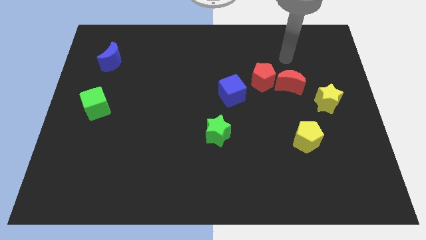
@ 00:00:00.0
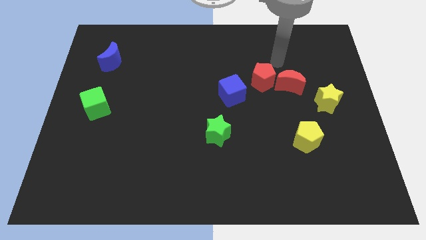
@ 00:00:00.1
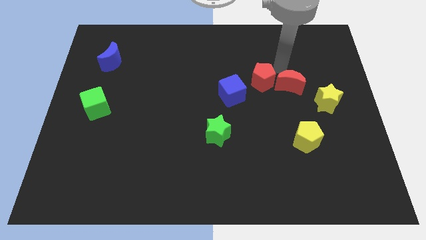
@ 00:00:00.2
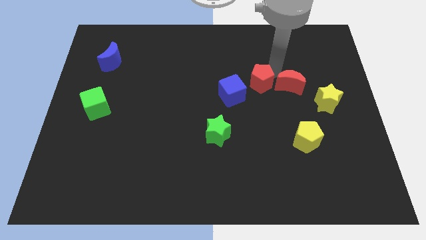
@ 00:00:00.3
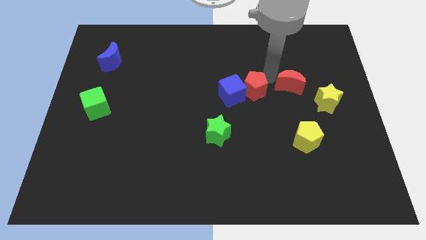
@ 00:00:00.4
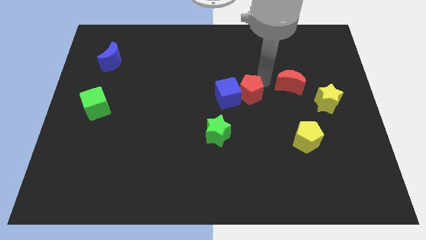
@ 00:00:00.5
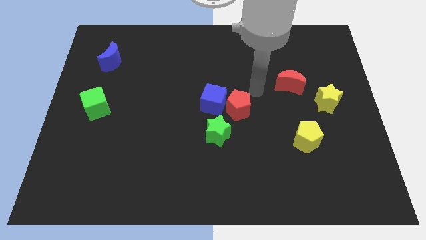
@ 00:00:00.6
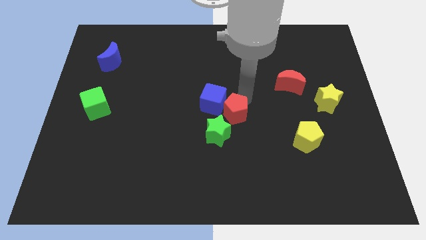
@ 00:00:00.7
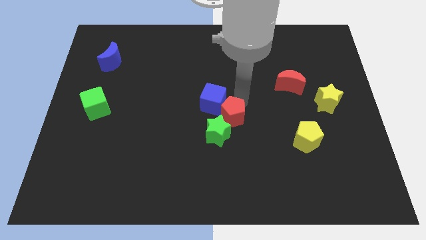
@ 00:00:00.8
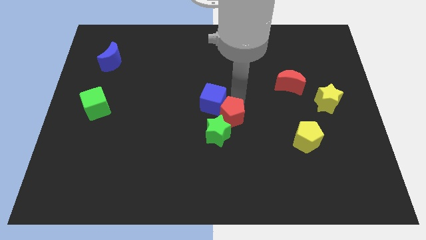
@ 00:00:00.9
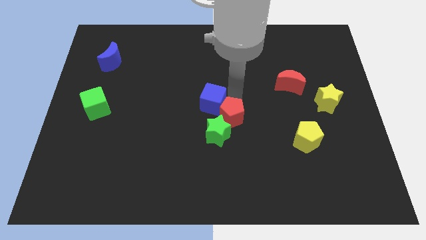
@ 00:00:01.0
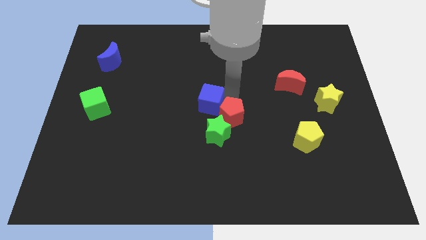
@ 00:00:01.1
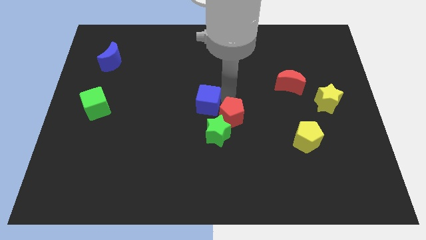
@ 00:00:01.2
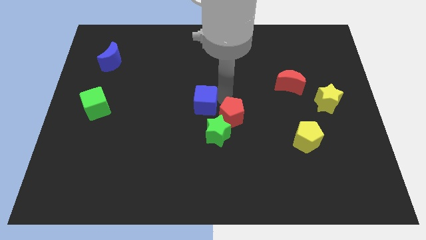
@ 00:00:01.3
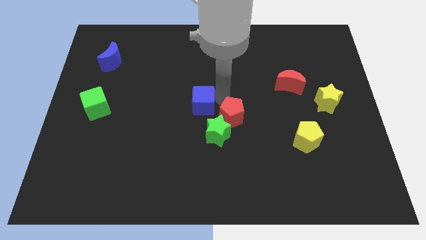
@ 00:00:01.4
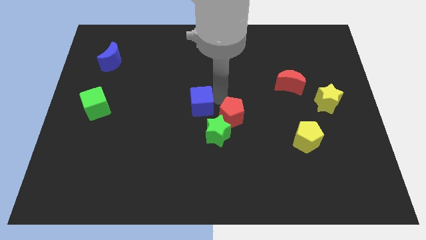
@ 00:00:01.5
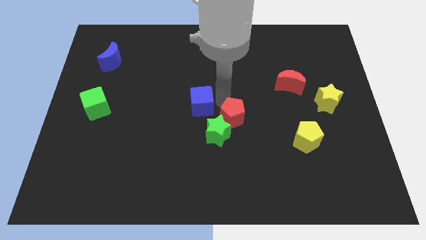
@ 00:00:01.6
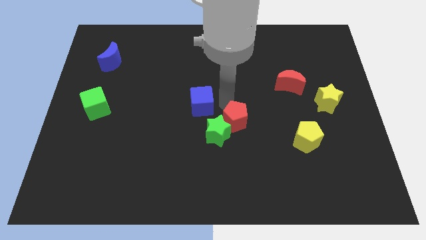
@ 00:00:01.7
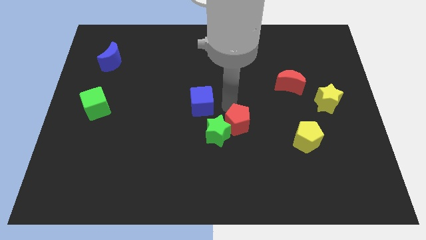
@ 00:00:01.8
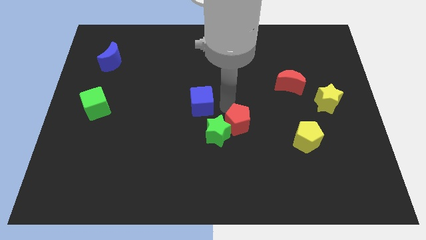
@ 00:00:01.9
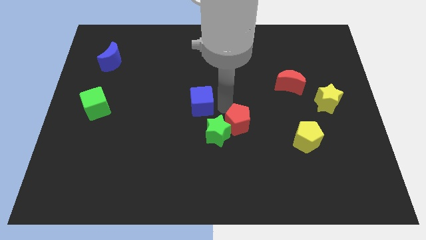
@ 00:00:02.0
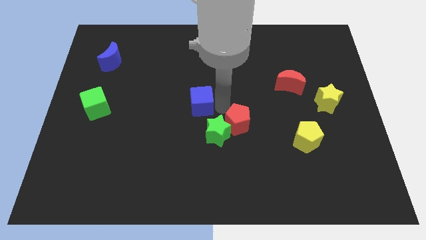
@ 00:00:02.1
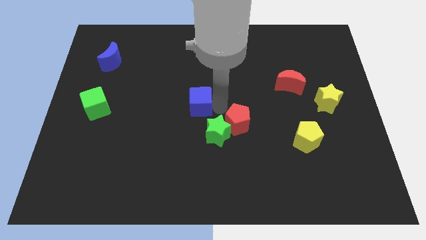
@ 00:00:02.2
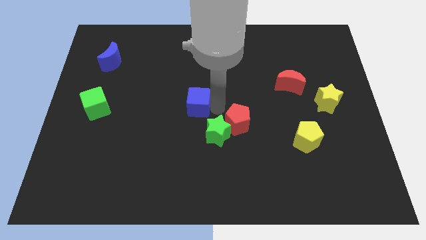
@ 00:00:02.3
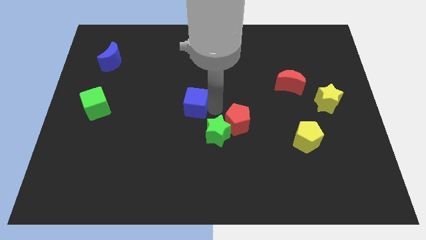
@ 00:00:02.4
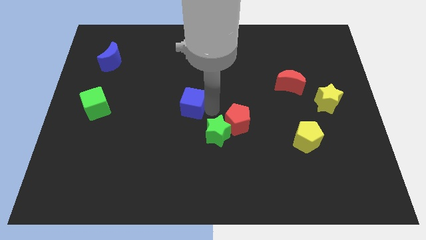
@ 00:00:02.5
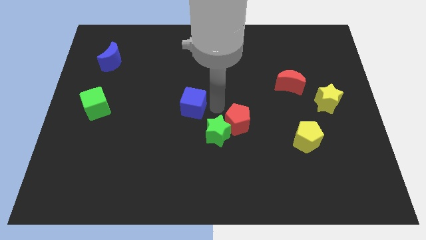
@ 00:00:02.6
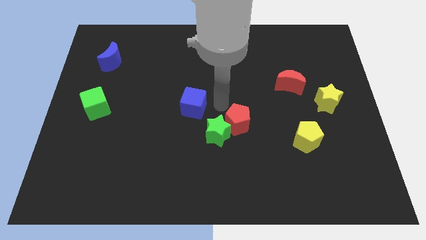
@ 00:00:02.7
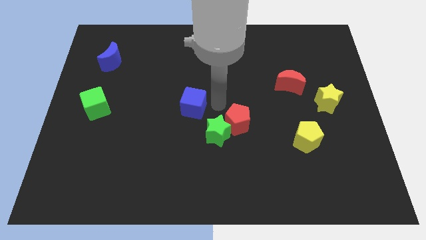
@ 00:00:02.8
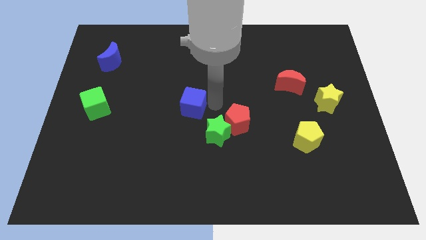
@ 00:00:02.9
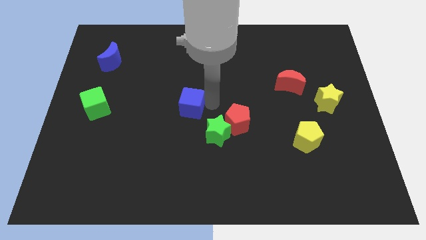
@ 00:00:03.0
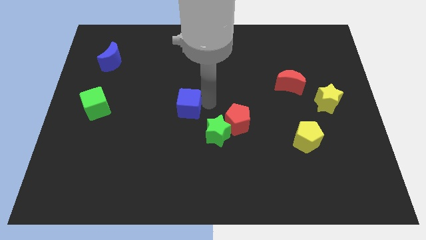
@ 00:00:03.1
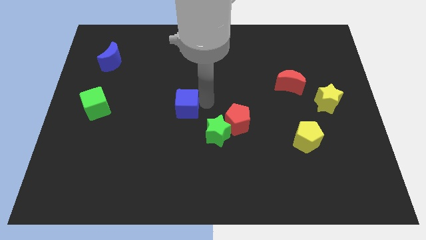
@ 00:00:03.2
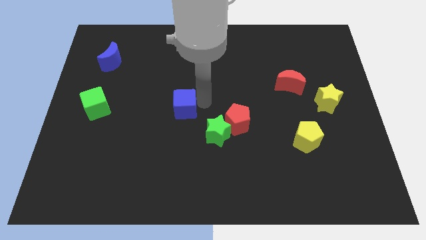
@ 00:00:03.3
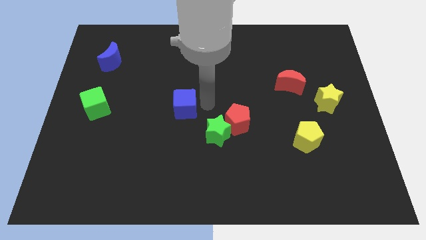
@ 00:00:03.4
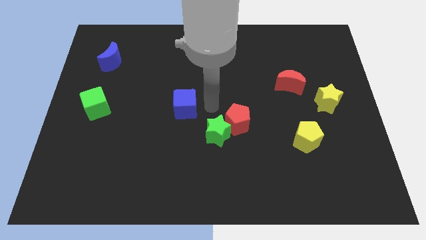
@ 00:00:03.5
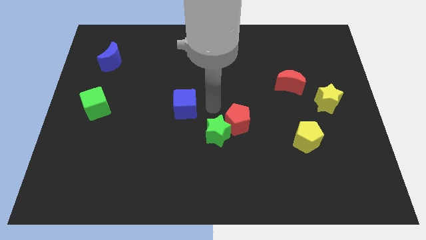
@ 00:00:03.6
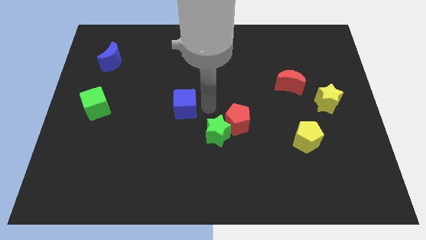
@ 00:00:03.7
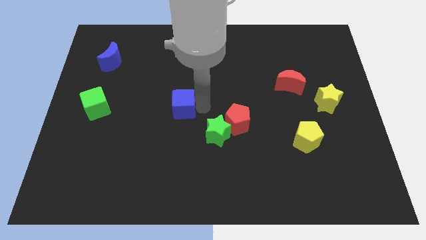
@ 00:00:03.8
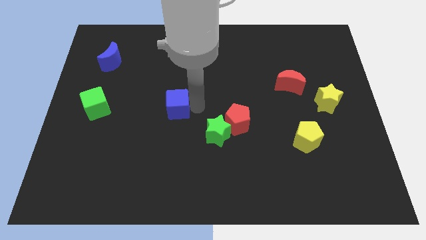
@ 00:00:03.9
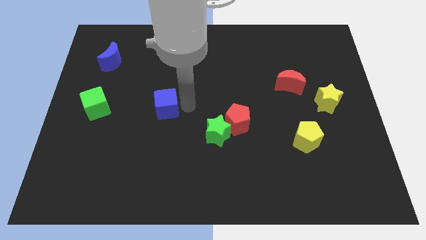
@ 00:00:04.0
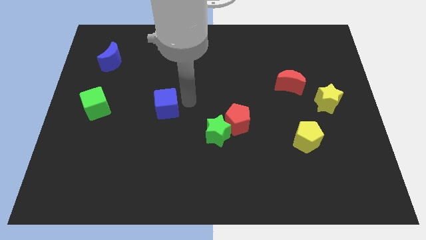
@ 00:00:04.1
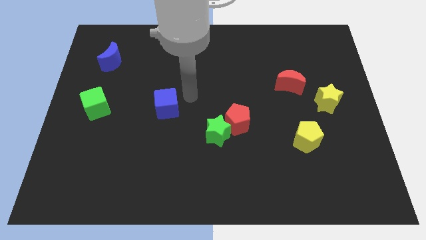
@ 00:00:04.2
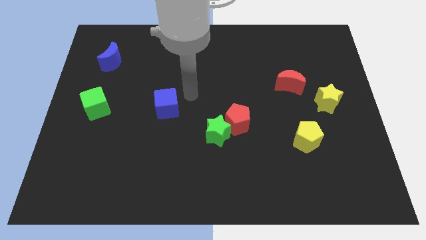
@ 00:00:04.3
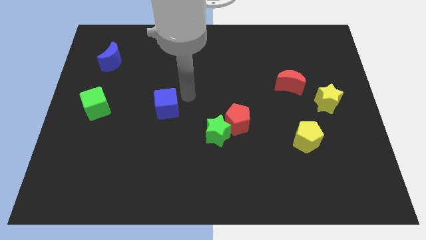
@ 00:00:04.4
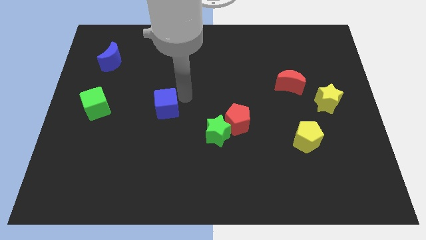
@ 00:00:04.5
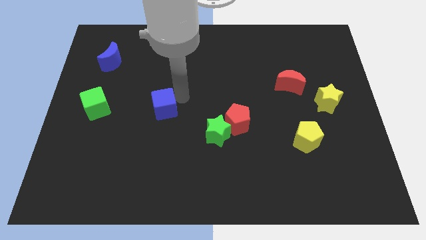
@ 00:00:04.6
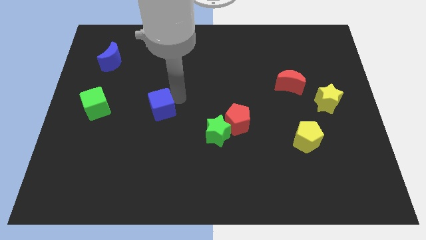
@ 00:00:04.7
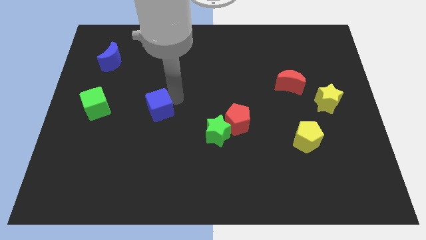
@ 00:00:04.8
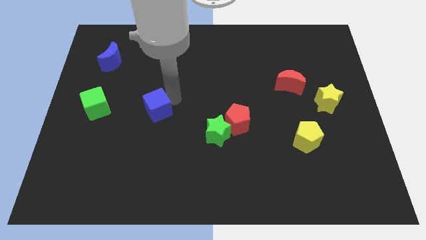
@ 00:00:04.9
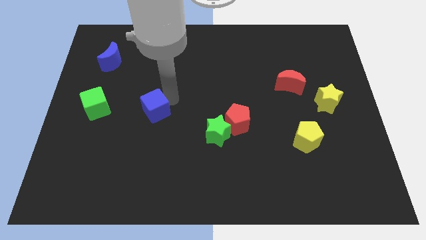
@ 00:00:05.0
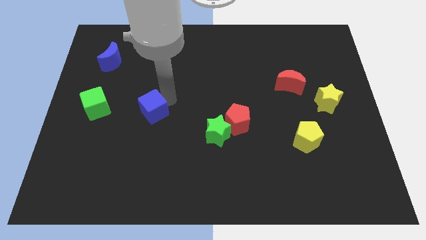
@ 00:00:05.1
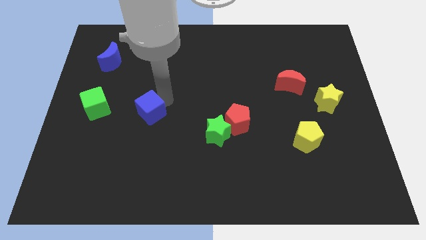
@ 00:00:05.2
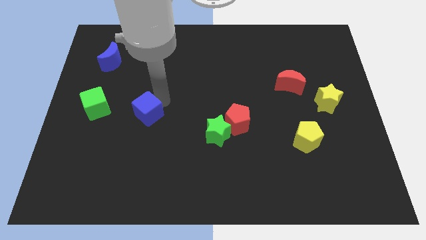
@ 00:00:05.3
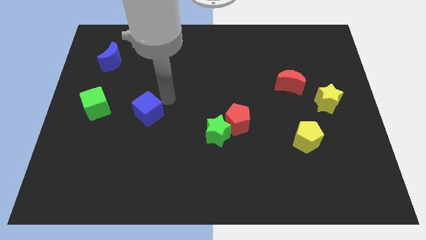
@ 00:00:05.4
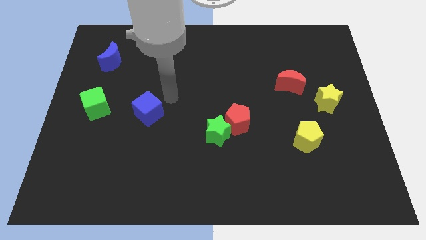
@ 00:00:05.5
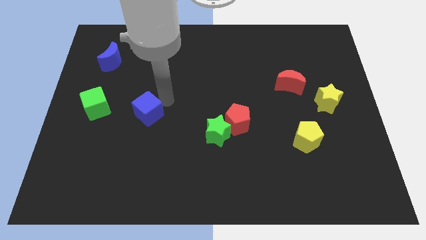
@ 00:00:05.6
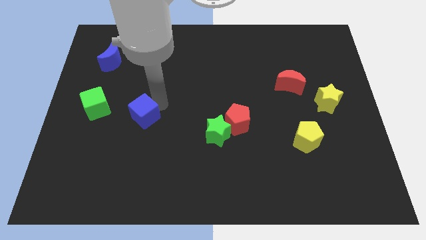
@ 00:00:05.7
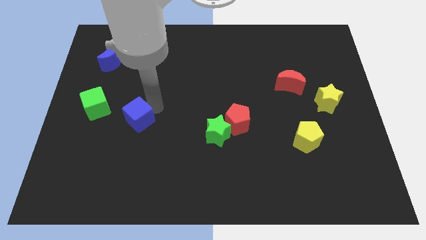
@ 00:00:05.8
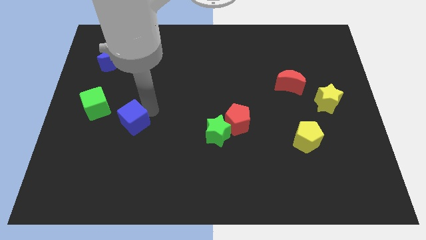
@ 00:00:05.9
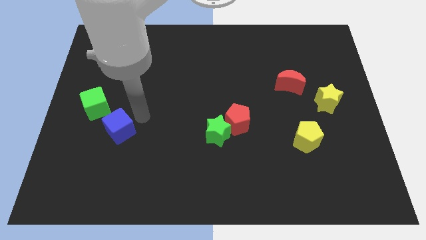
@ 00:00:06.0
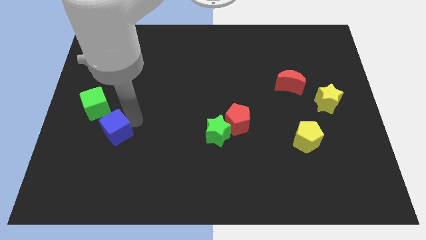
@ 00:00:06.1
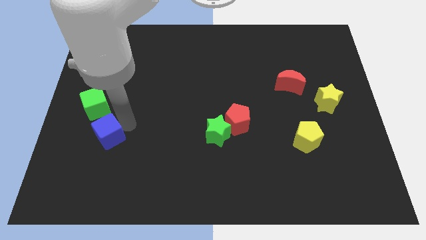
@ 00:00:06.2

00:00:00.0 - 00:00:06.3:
move the blue cube to the bottom side of the green cube
